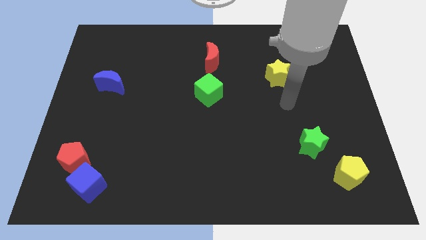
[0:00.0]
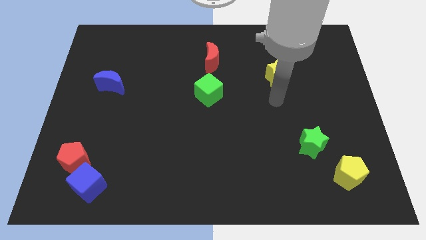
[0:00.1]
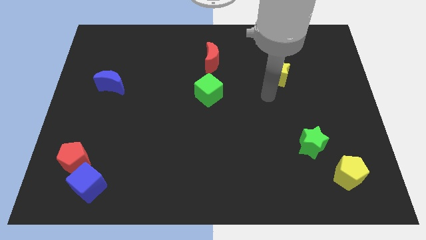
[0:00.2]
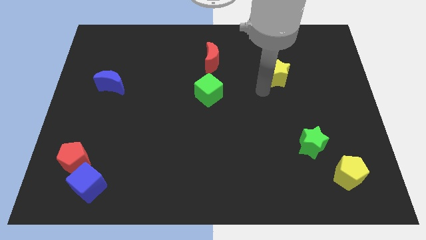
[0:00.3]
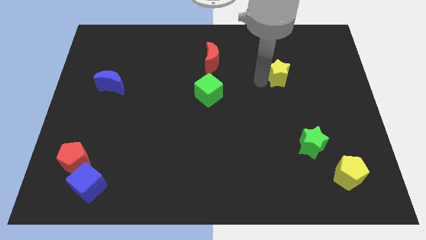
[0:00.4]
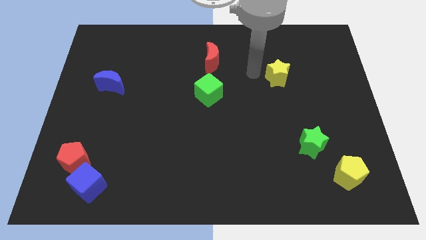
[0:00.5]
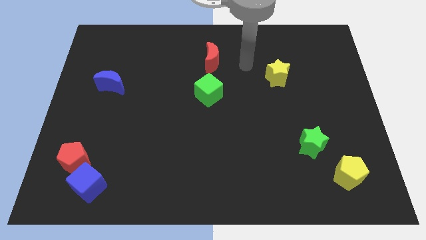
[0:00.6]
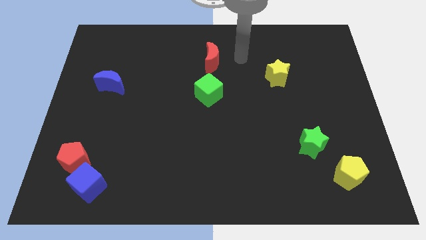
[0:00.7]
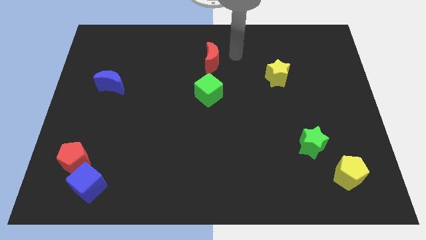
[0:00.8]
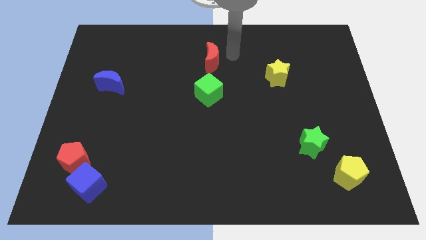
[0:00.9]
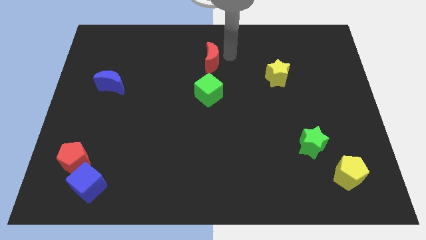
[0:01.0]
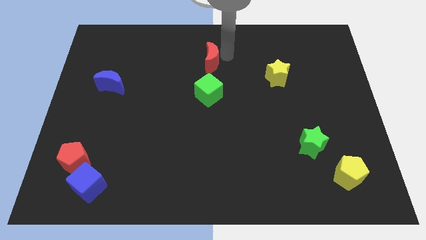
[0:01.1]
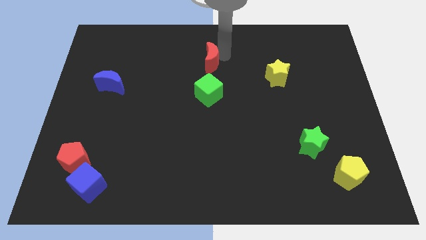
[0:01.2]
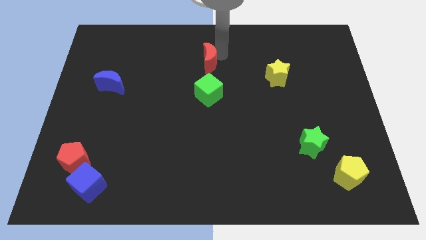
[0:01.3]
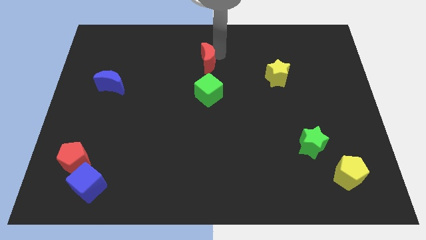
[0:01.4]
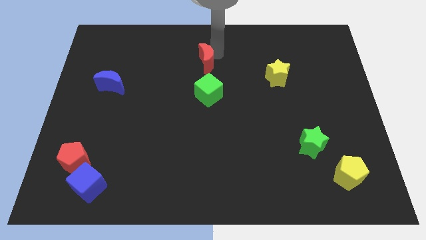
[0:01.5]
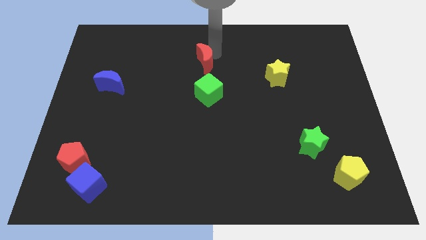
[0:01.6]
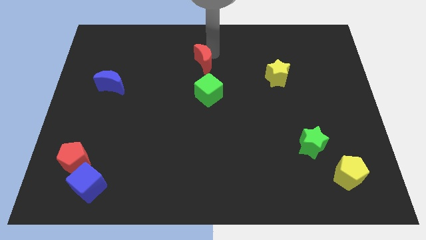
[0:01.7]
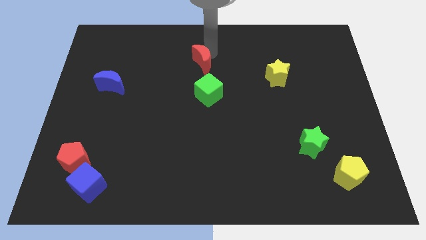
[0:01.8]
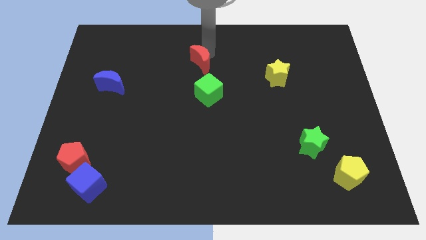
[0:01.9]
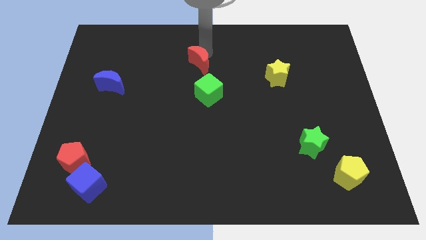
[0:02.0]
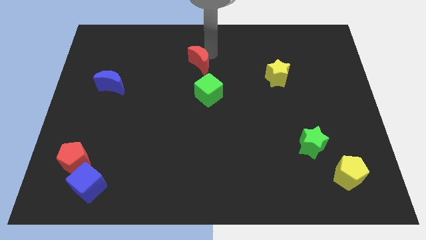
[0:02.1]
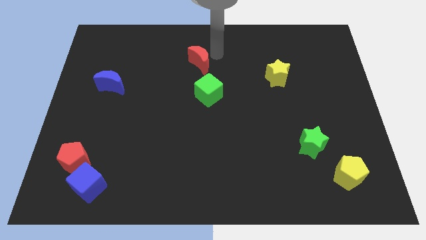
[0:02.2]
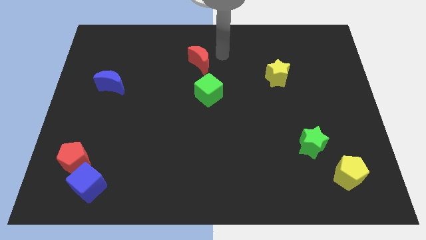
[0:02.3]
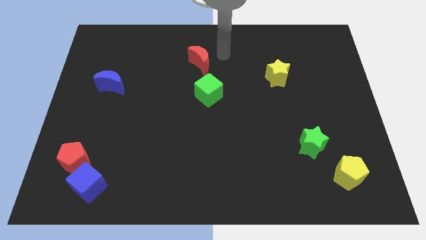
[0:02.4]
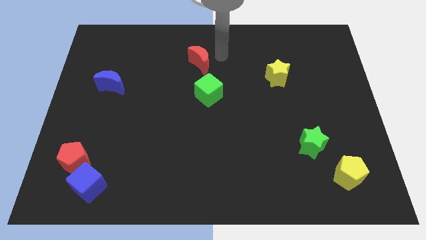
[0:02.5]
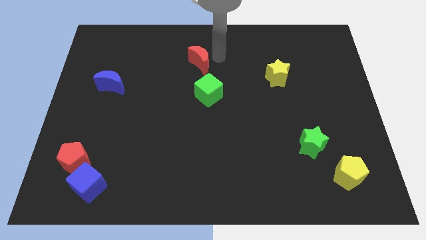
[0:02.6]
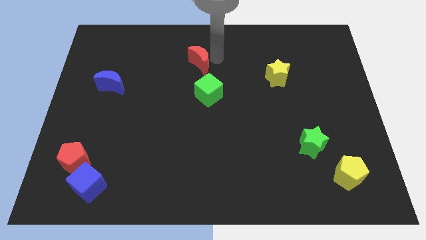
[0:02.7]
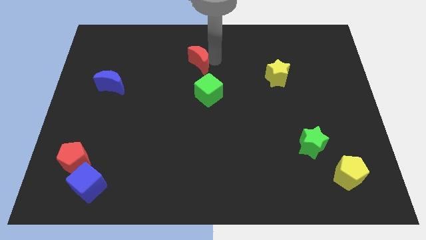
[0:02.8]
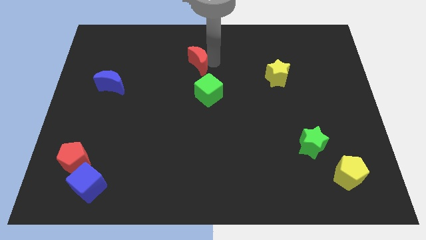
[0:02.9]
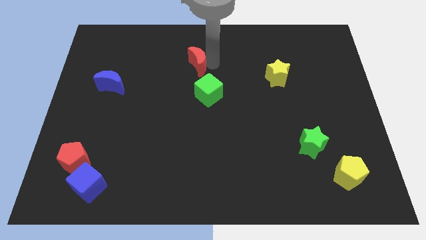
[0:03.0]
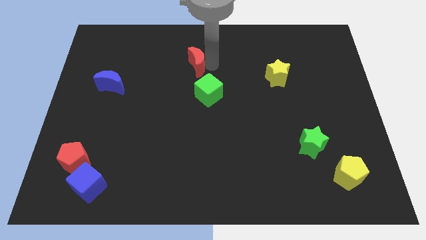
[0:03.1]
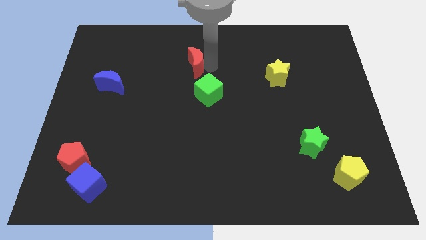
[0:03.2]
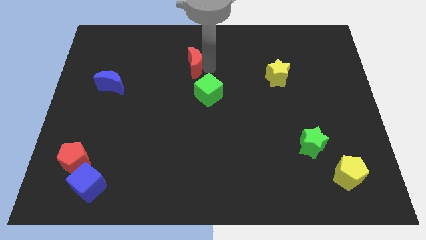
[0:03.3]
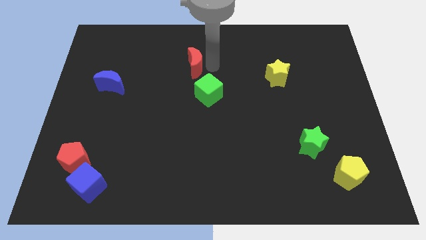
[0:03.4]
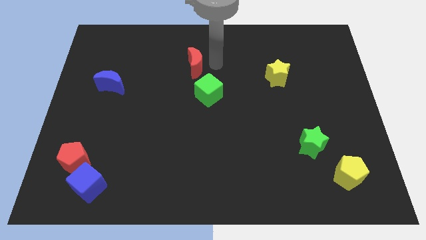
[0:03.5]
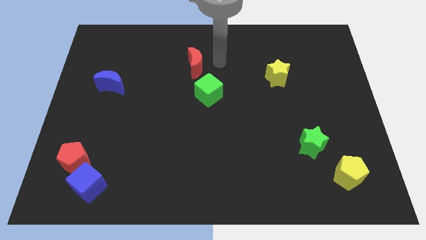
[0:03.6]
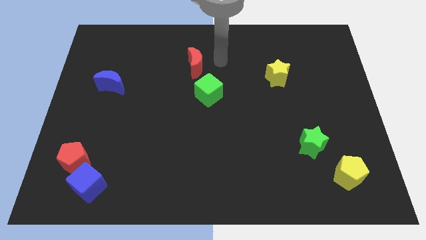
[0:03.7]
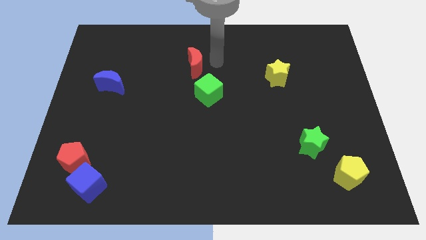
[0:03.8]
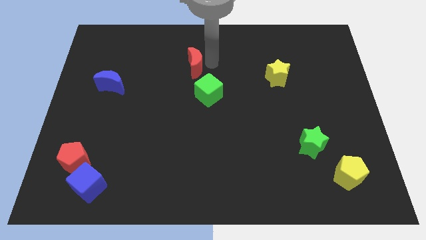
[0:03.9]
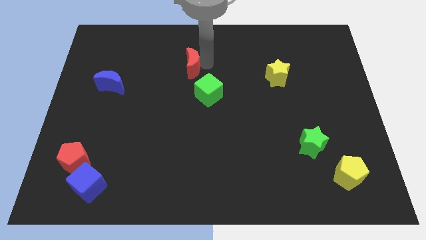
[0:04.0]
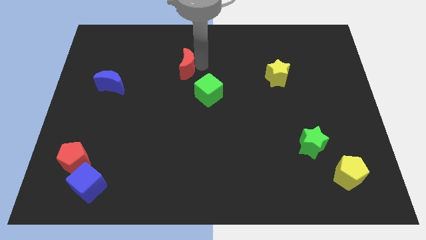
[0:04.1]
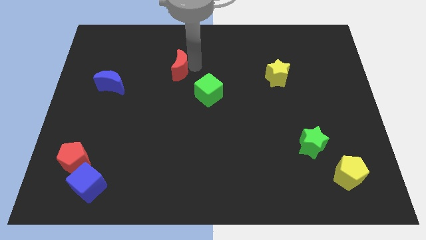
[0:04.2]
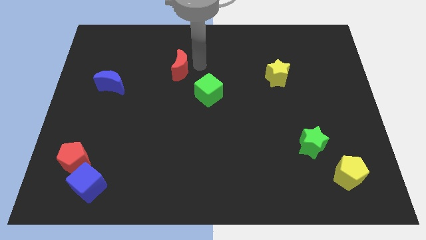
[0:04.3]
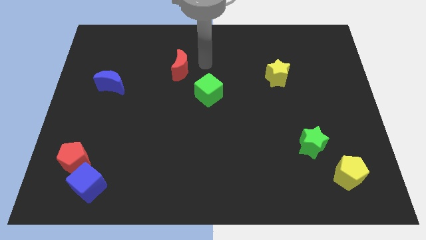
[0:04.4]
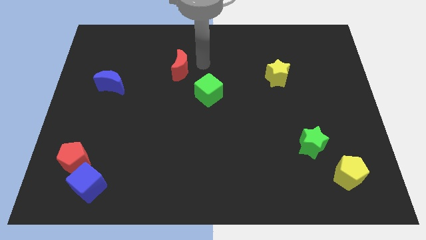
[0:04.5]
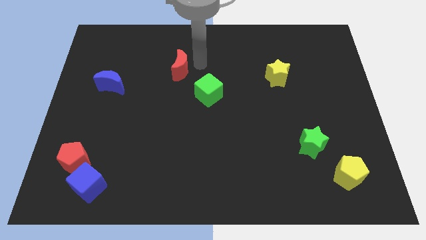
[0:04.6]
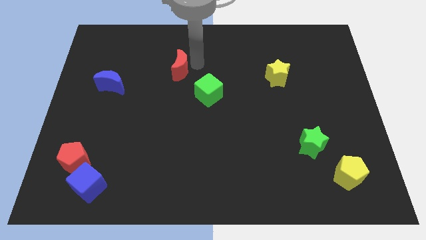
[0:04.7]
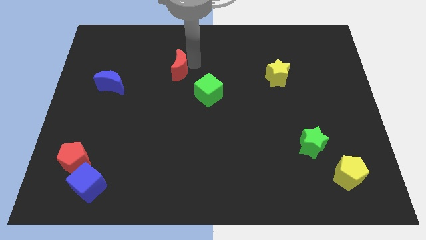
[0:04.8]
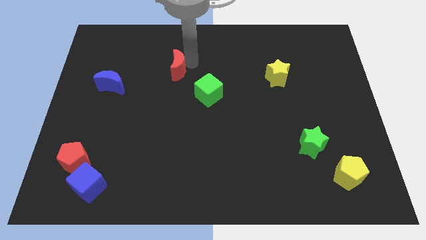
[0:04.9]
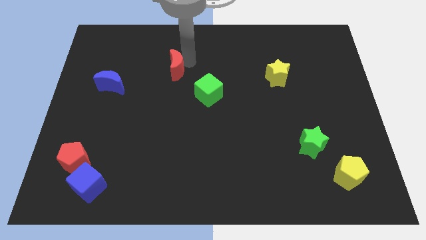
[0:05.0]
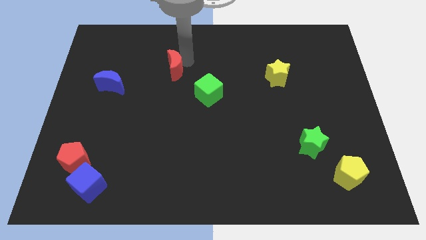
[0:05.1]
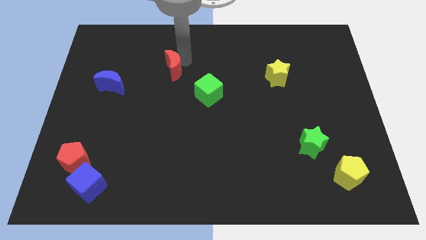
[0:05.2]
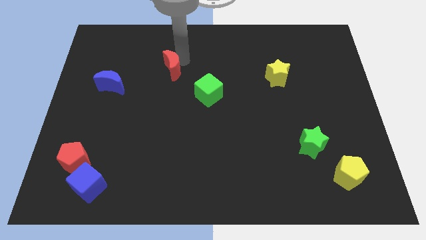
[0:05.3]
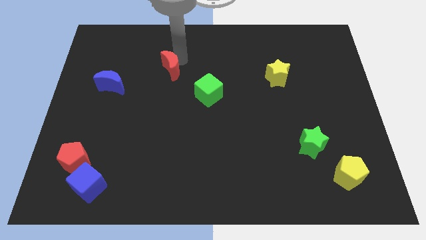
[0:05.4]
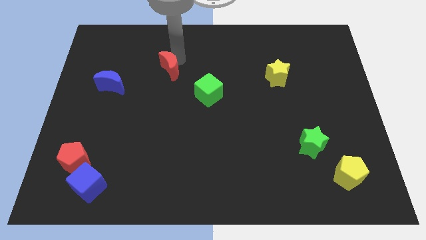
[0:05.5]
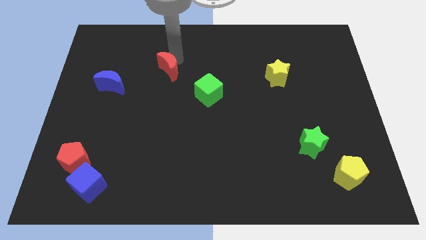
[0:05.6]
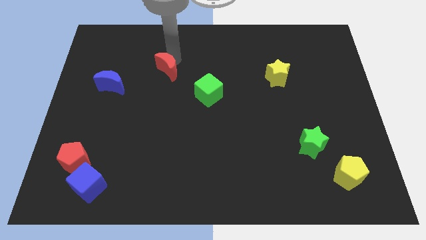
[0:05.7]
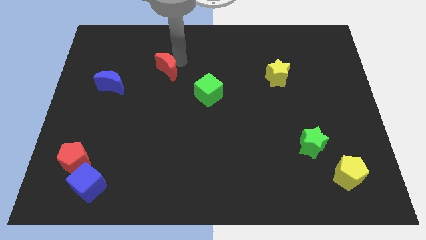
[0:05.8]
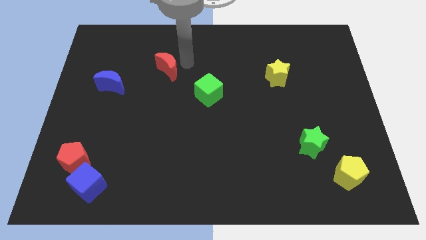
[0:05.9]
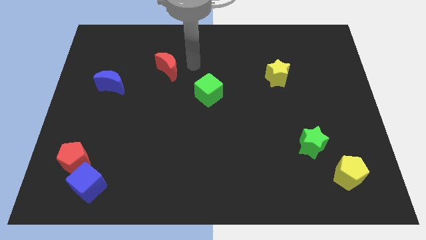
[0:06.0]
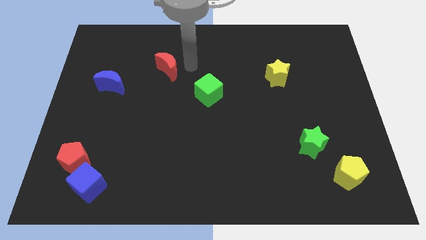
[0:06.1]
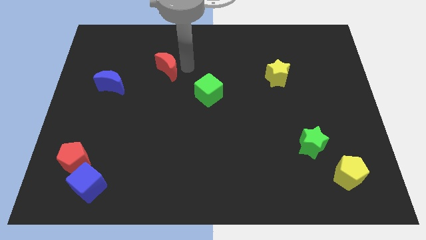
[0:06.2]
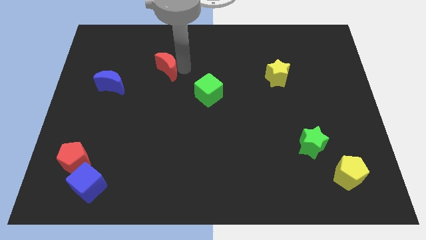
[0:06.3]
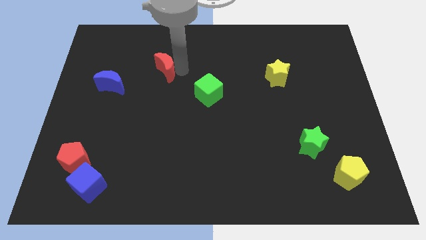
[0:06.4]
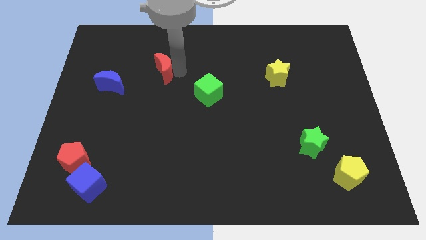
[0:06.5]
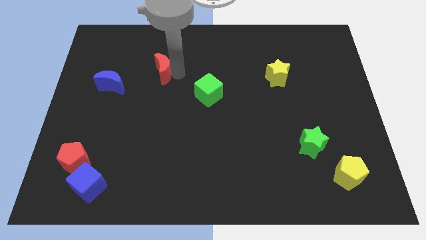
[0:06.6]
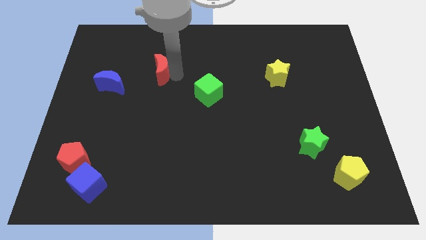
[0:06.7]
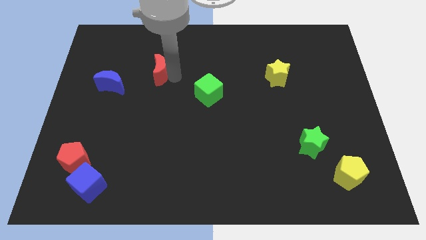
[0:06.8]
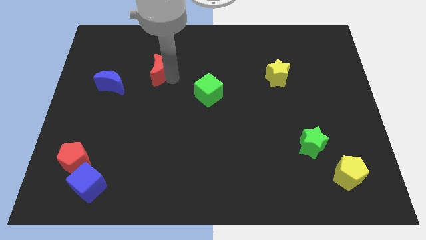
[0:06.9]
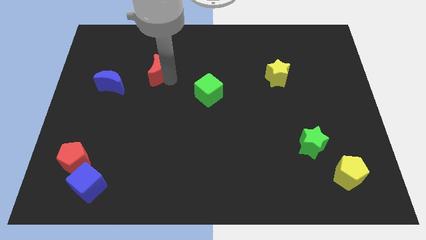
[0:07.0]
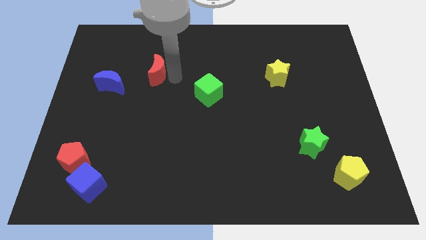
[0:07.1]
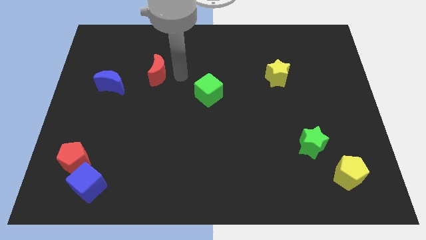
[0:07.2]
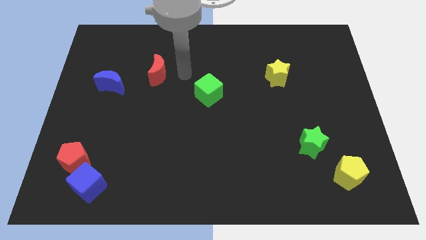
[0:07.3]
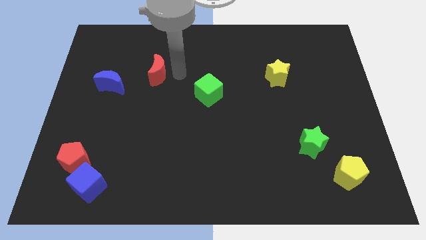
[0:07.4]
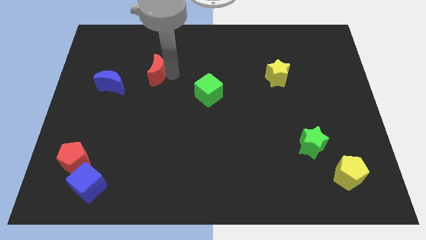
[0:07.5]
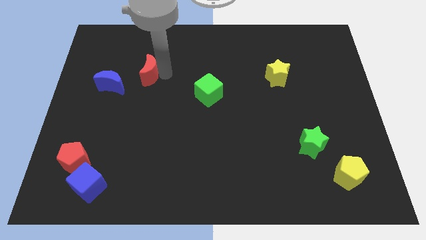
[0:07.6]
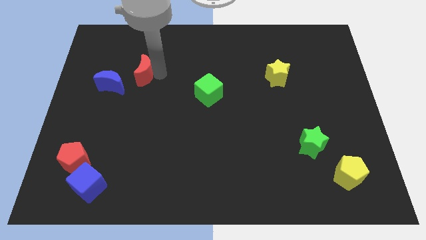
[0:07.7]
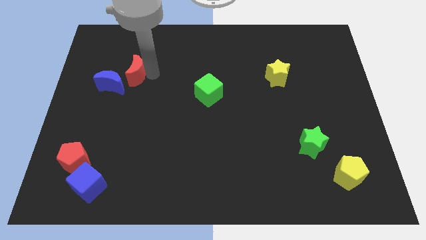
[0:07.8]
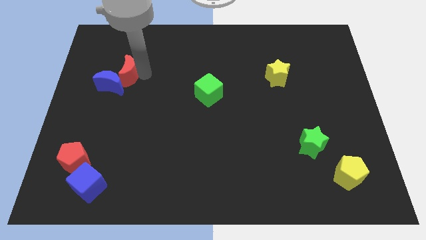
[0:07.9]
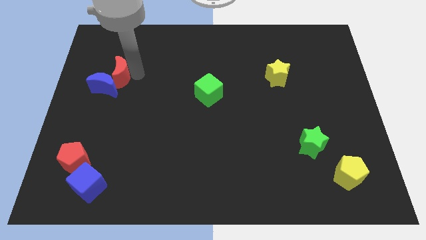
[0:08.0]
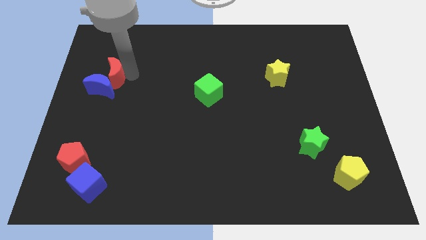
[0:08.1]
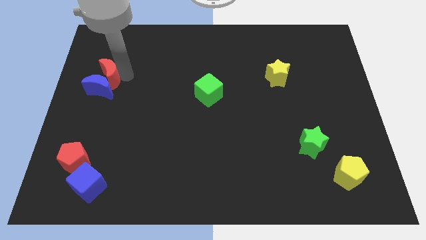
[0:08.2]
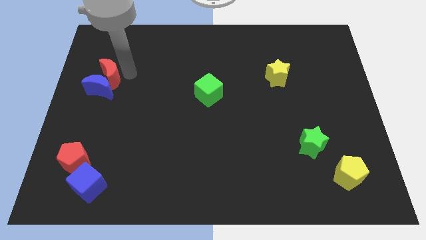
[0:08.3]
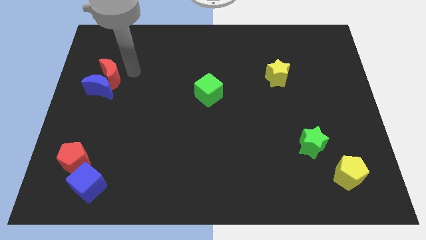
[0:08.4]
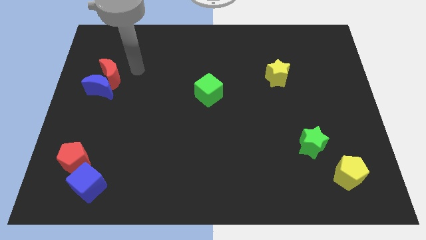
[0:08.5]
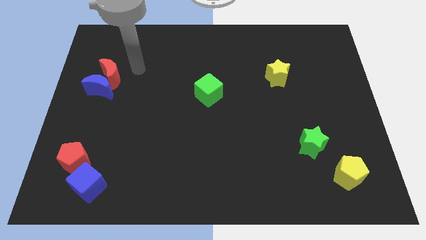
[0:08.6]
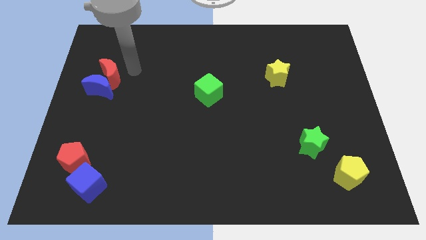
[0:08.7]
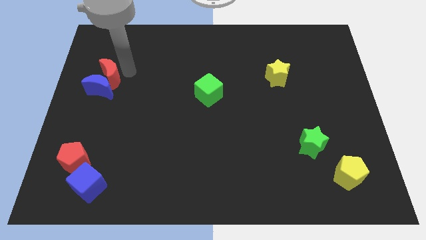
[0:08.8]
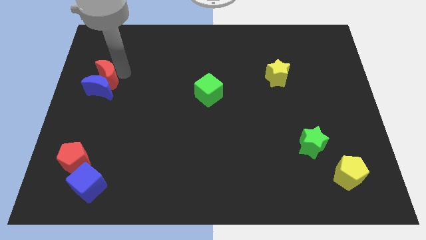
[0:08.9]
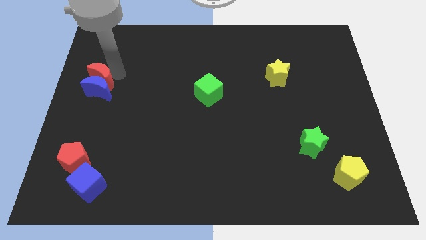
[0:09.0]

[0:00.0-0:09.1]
push the red moon to the left side of the board
